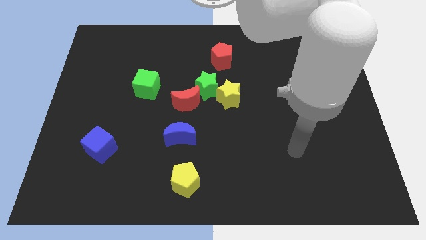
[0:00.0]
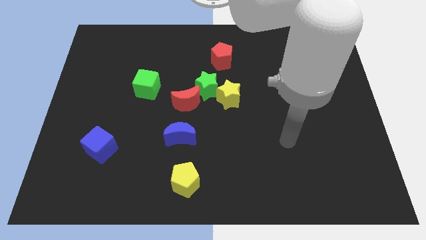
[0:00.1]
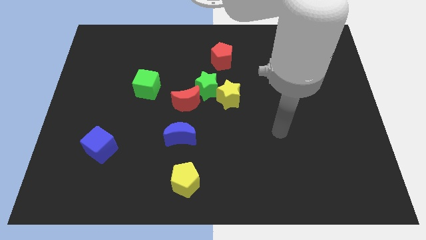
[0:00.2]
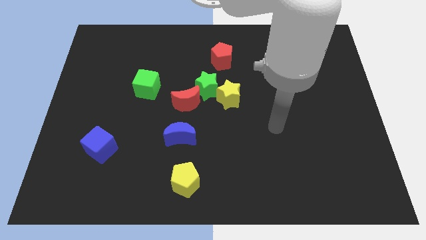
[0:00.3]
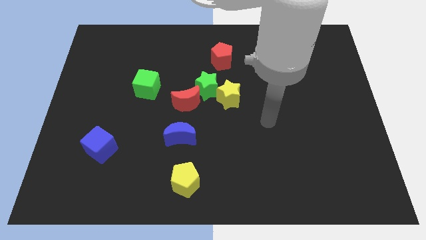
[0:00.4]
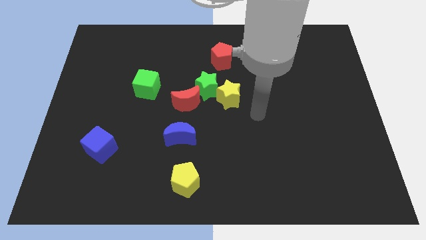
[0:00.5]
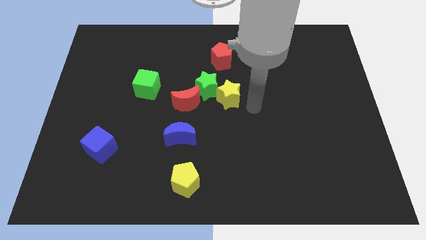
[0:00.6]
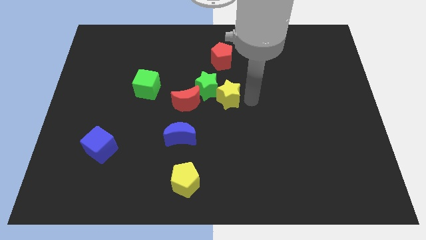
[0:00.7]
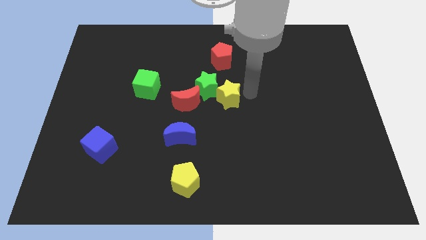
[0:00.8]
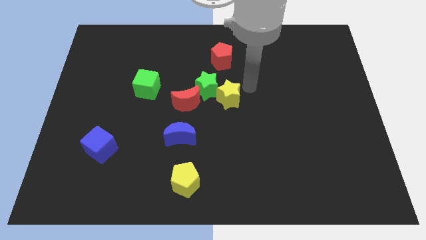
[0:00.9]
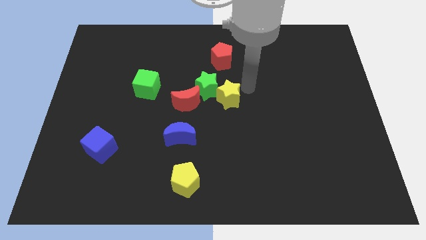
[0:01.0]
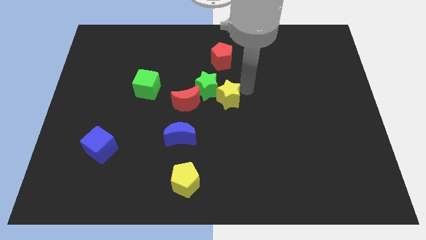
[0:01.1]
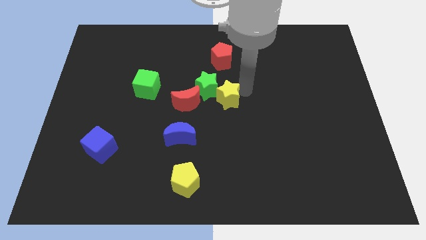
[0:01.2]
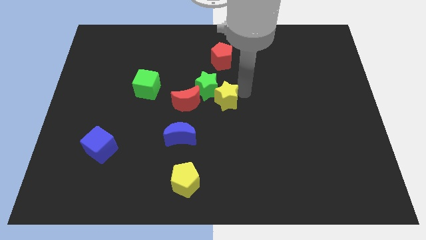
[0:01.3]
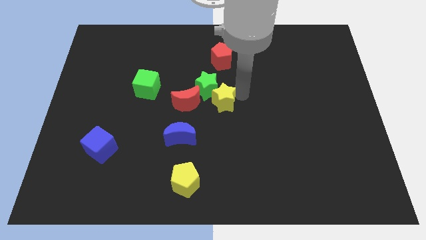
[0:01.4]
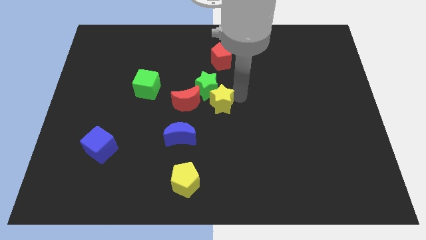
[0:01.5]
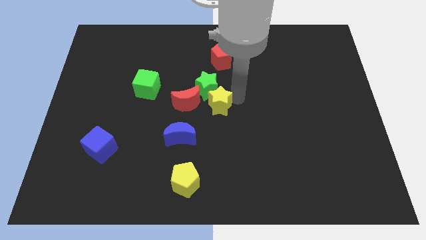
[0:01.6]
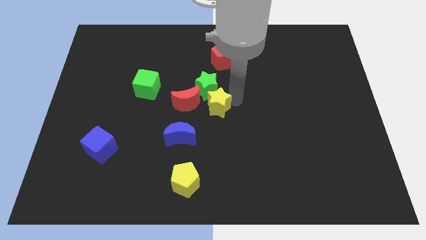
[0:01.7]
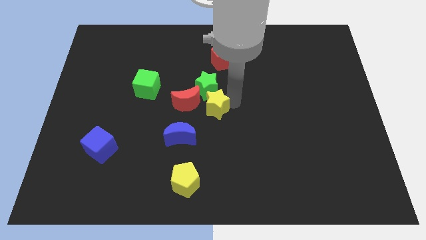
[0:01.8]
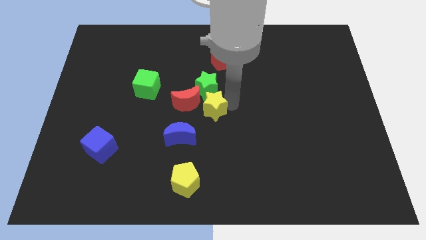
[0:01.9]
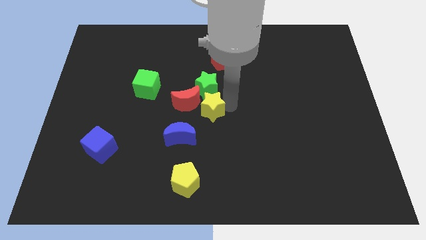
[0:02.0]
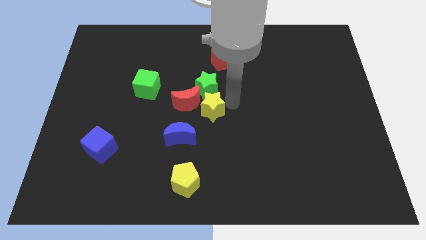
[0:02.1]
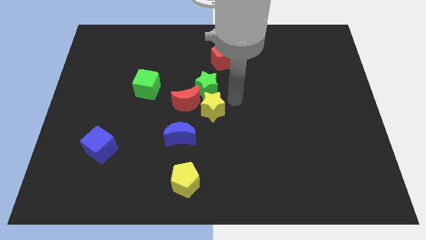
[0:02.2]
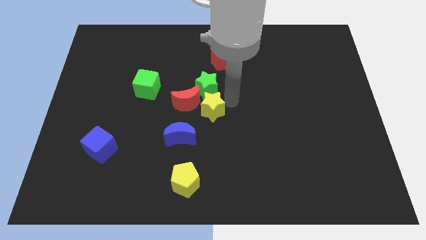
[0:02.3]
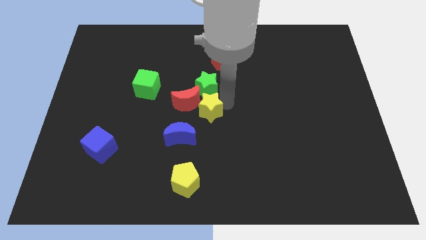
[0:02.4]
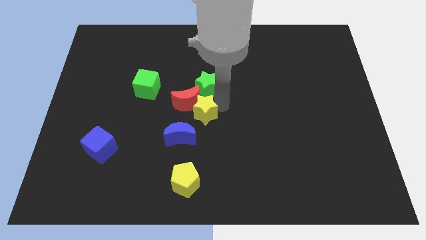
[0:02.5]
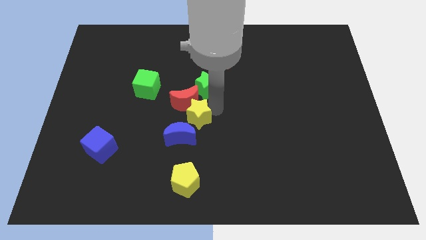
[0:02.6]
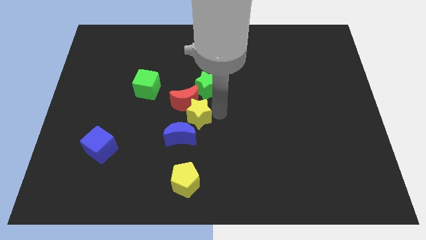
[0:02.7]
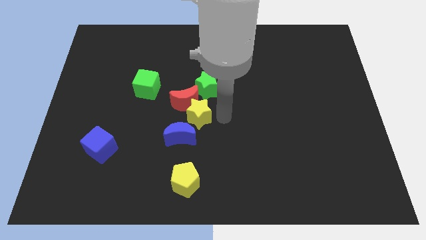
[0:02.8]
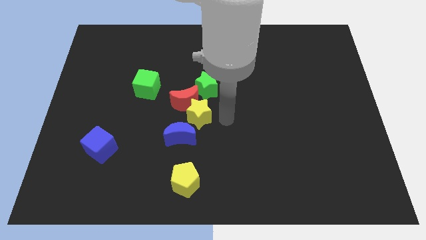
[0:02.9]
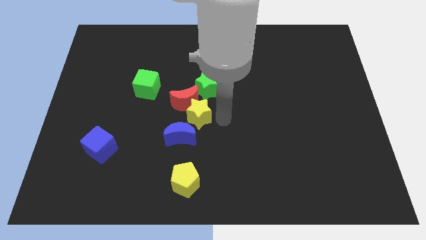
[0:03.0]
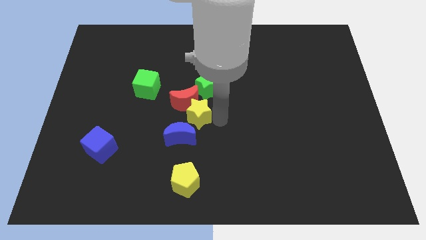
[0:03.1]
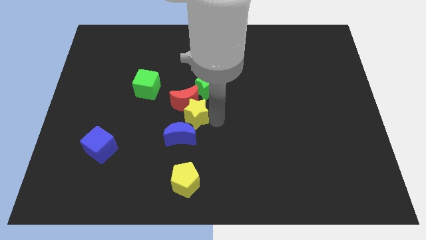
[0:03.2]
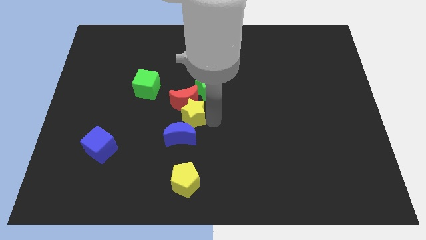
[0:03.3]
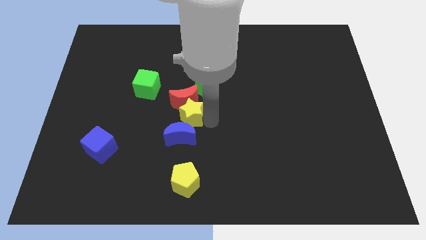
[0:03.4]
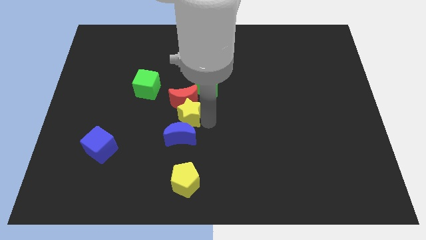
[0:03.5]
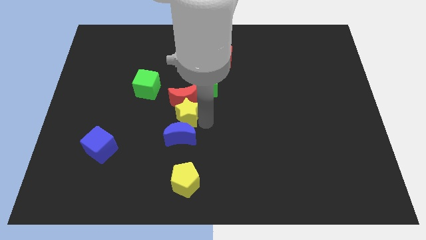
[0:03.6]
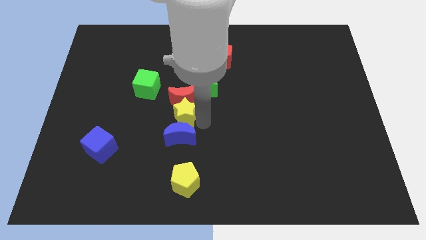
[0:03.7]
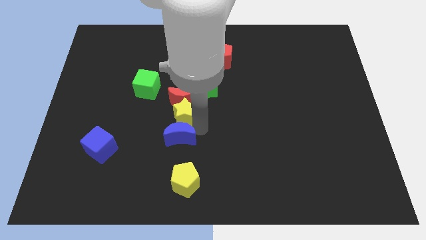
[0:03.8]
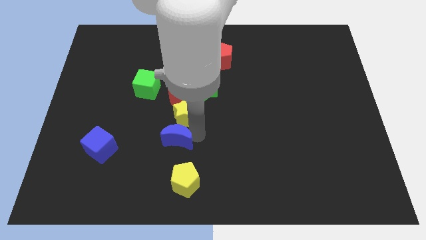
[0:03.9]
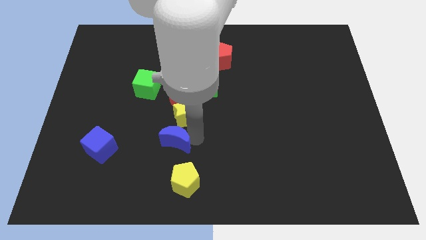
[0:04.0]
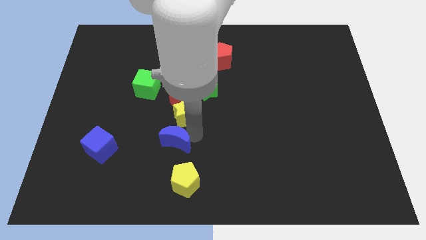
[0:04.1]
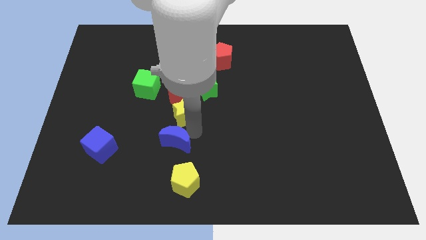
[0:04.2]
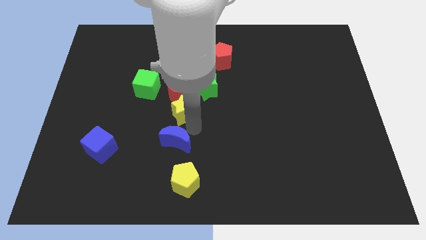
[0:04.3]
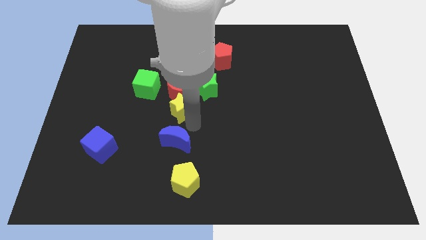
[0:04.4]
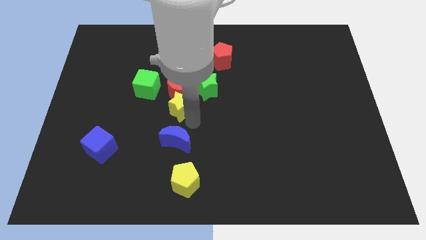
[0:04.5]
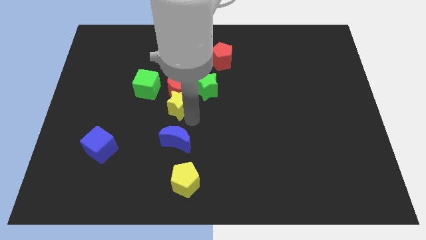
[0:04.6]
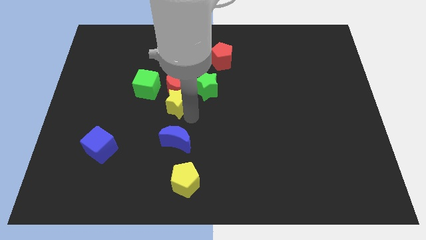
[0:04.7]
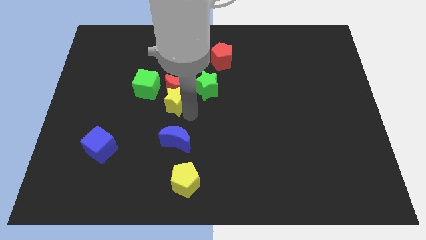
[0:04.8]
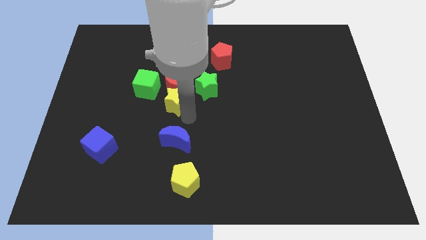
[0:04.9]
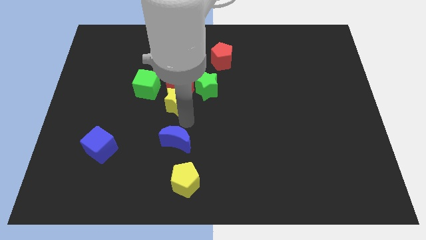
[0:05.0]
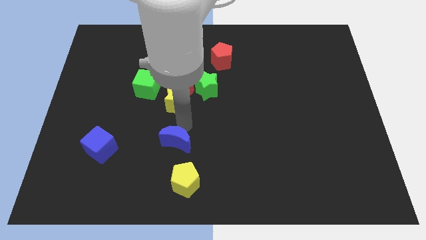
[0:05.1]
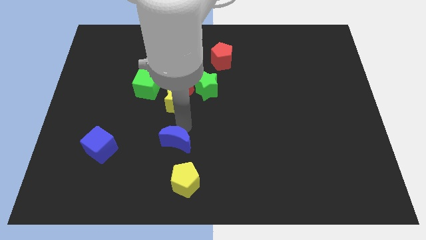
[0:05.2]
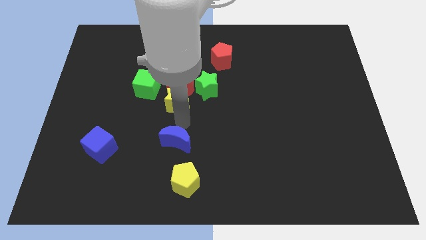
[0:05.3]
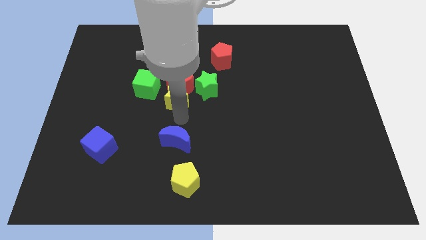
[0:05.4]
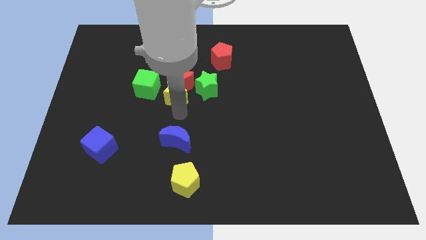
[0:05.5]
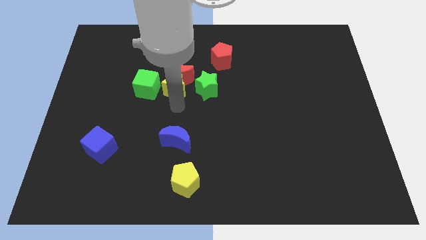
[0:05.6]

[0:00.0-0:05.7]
push the yellow star up and left diagonally a bit

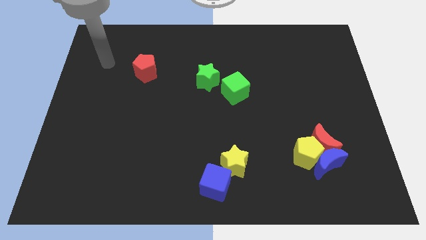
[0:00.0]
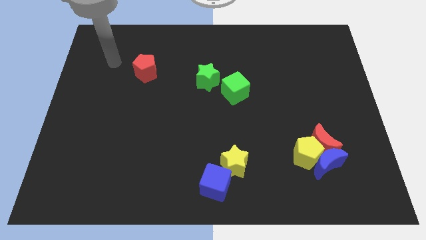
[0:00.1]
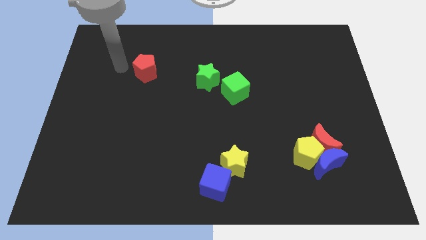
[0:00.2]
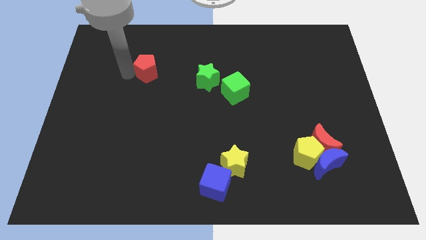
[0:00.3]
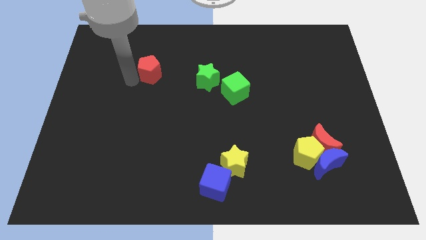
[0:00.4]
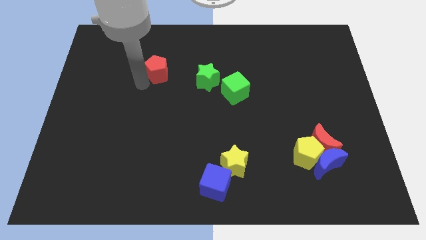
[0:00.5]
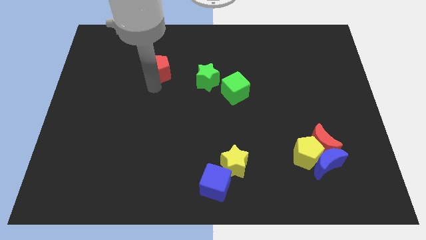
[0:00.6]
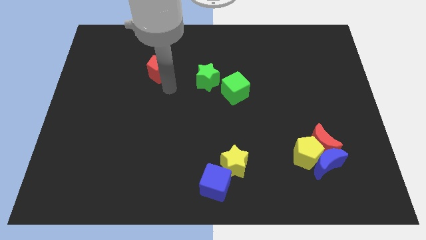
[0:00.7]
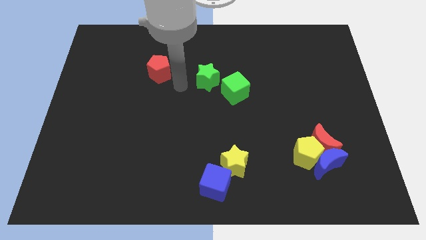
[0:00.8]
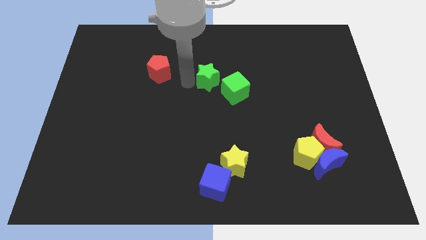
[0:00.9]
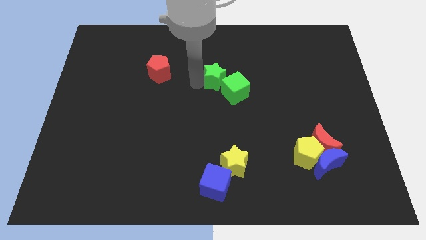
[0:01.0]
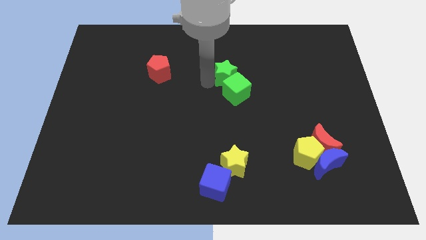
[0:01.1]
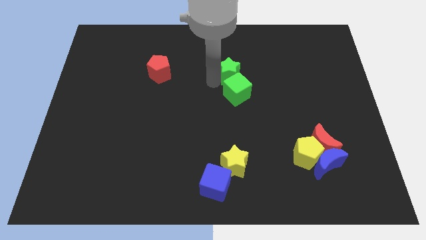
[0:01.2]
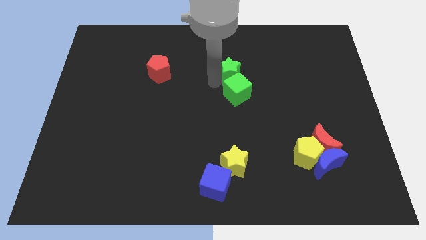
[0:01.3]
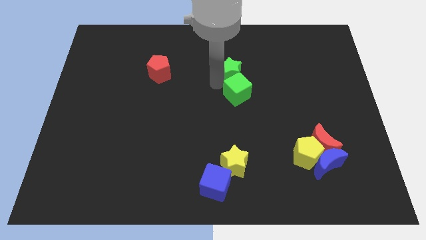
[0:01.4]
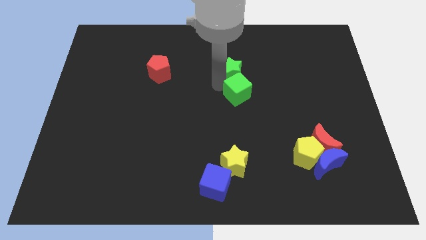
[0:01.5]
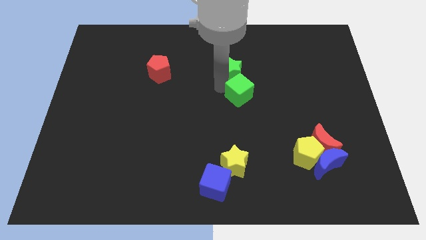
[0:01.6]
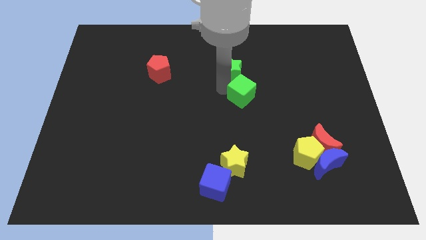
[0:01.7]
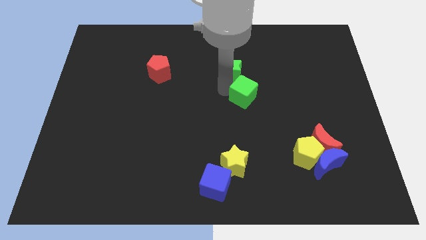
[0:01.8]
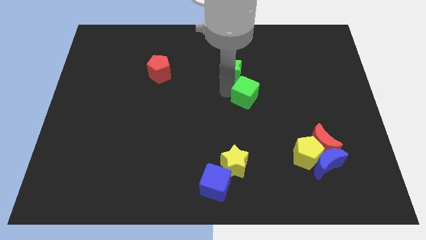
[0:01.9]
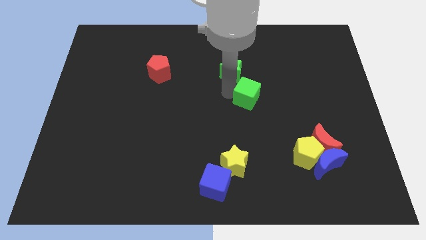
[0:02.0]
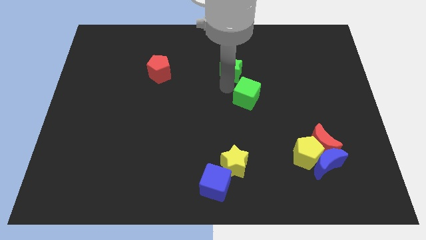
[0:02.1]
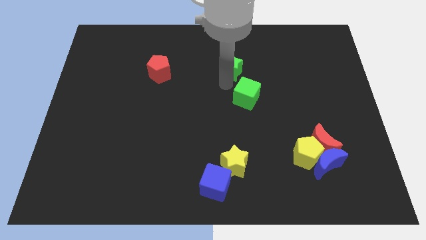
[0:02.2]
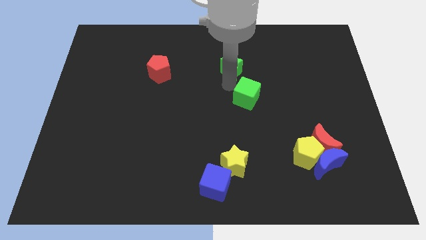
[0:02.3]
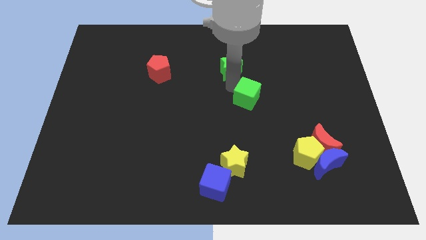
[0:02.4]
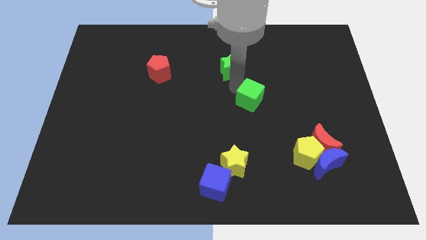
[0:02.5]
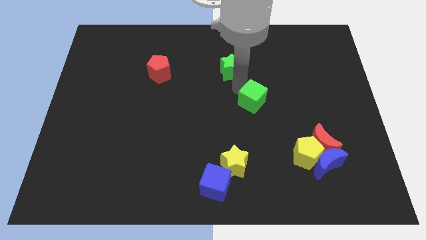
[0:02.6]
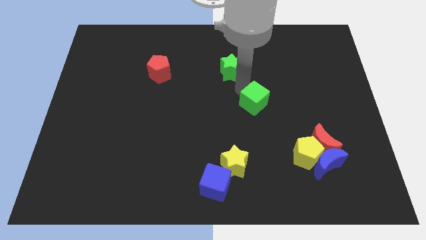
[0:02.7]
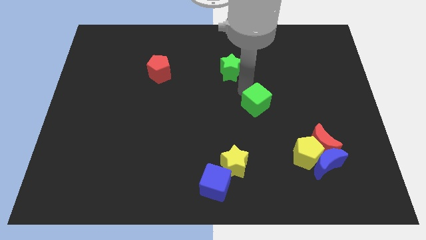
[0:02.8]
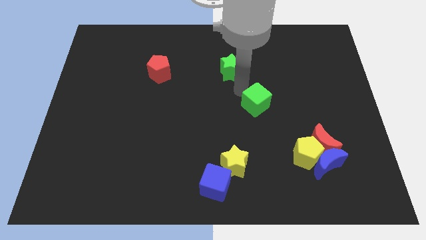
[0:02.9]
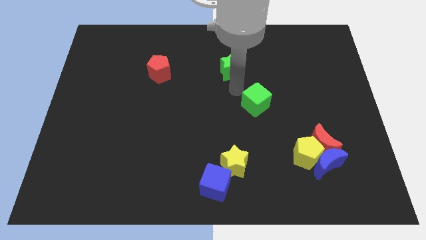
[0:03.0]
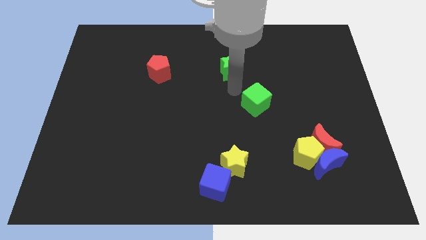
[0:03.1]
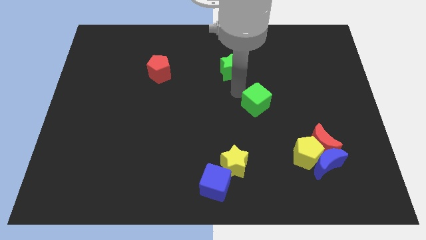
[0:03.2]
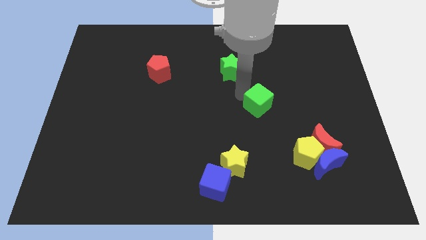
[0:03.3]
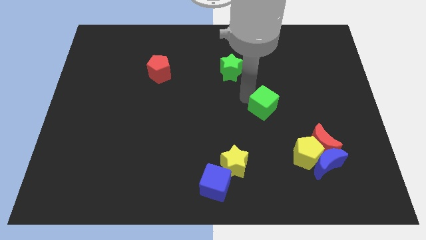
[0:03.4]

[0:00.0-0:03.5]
slide the green cube slightly downwards and right diagonally
